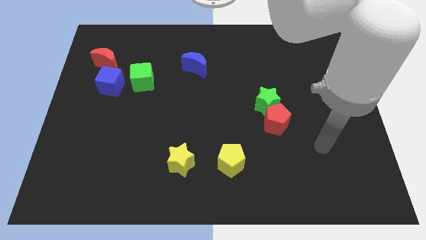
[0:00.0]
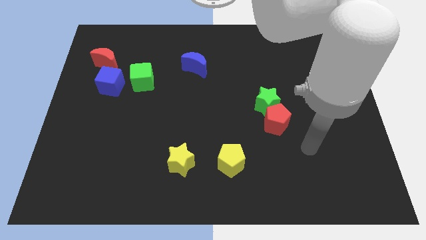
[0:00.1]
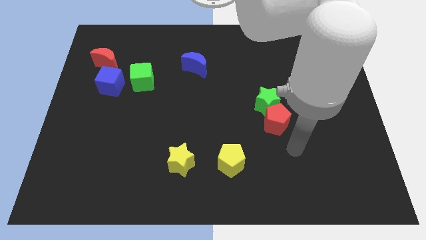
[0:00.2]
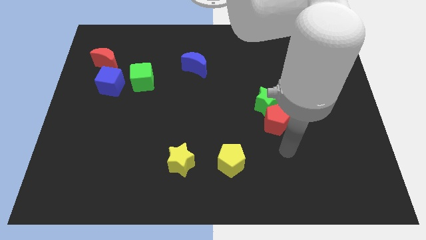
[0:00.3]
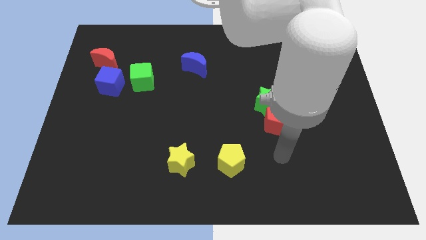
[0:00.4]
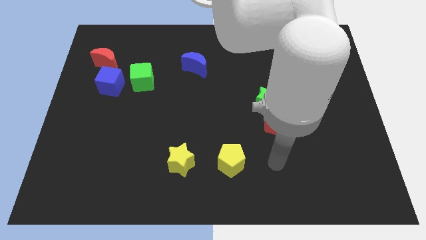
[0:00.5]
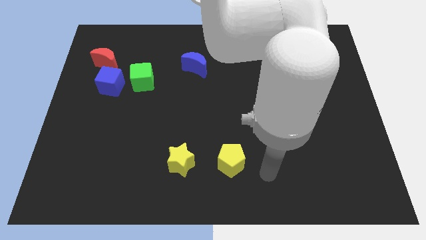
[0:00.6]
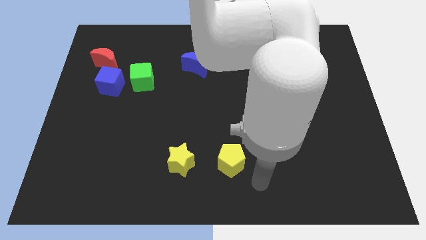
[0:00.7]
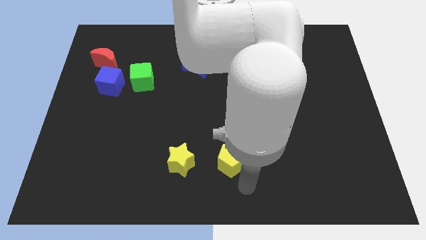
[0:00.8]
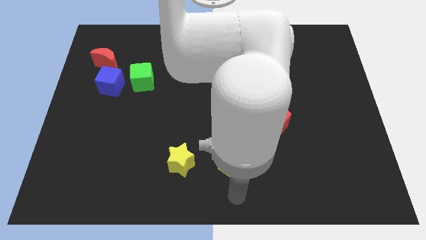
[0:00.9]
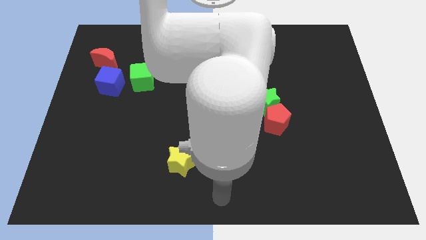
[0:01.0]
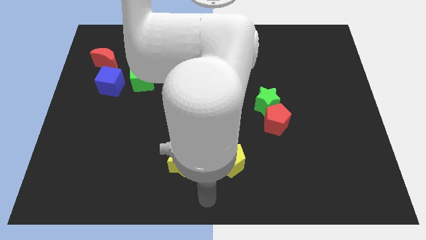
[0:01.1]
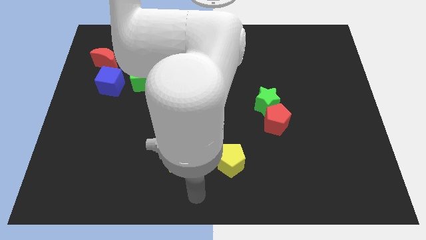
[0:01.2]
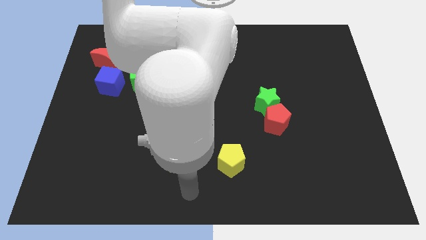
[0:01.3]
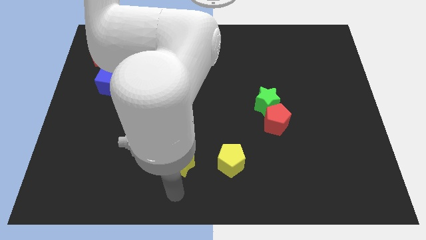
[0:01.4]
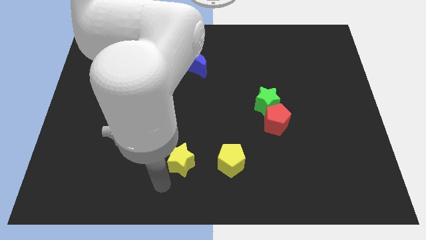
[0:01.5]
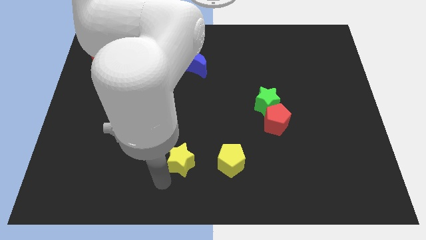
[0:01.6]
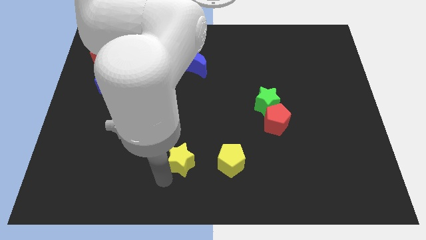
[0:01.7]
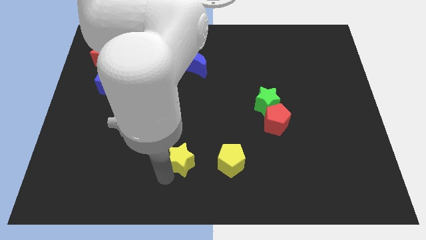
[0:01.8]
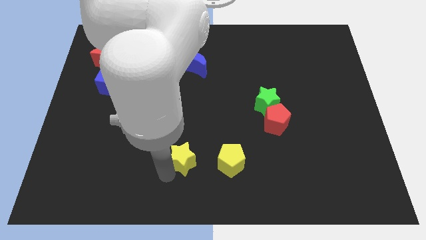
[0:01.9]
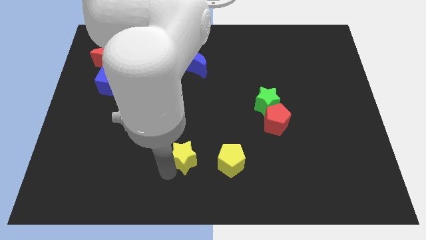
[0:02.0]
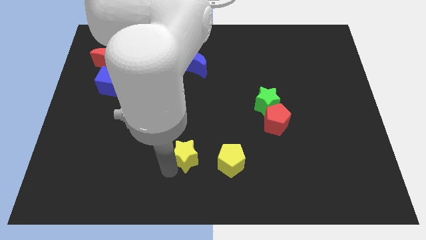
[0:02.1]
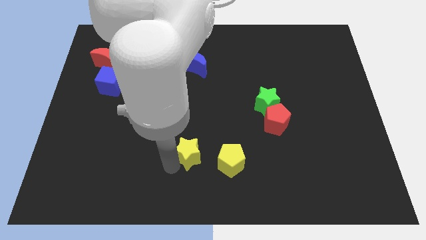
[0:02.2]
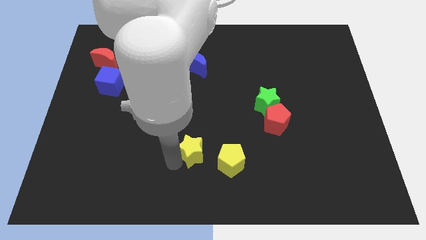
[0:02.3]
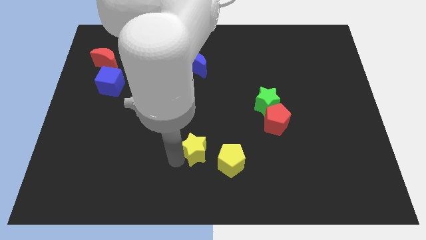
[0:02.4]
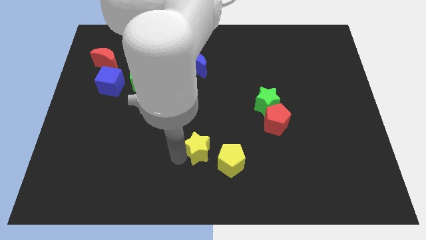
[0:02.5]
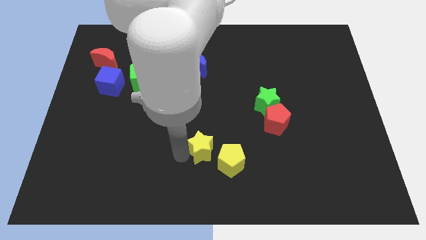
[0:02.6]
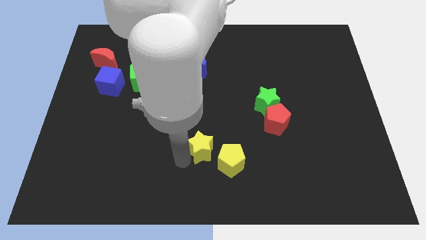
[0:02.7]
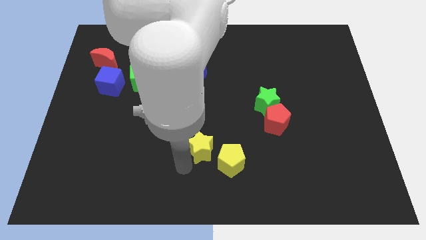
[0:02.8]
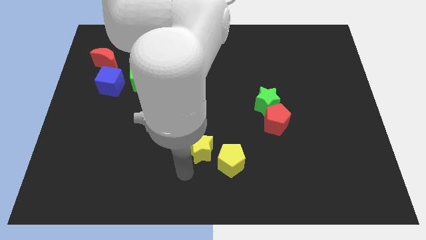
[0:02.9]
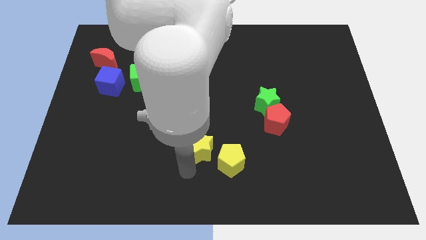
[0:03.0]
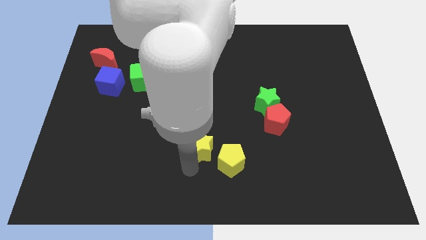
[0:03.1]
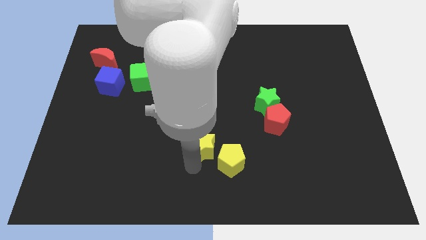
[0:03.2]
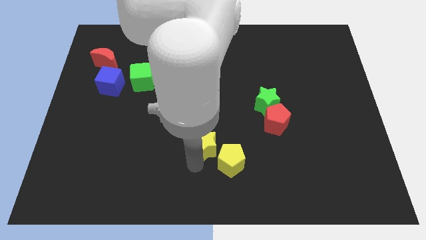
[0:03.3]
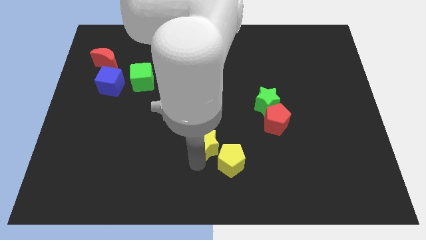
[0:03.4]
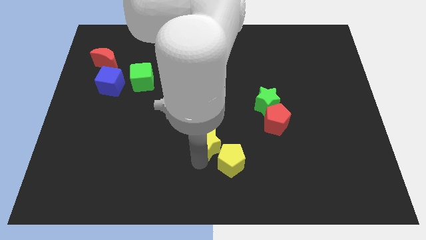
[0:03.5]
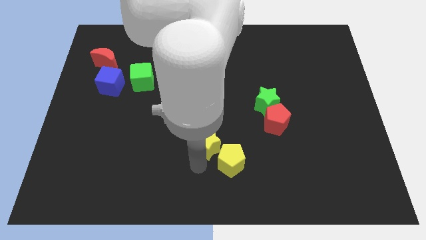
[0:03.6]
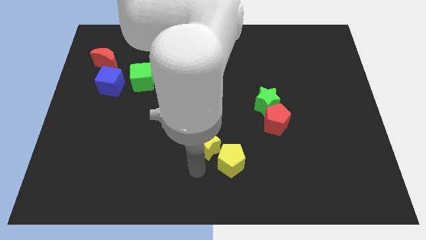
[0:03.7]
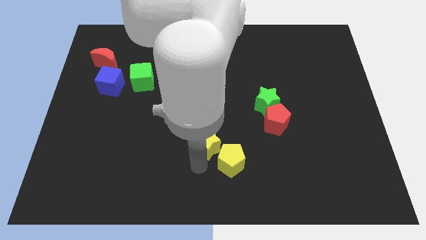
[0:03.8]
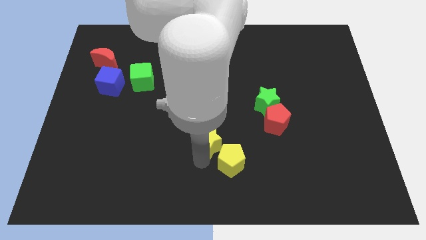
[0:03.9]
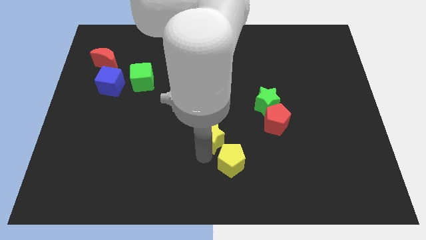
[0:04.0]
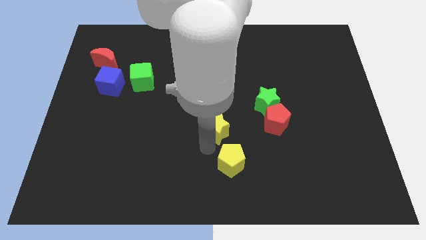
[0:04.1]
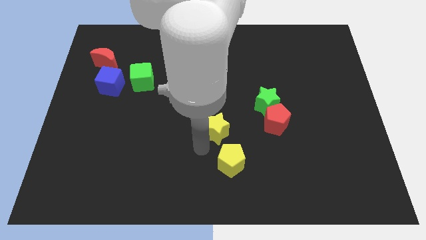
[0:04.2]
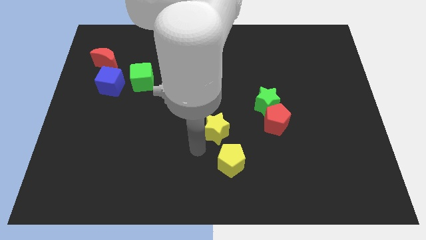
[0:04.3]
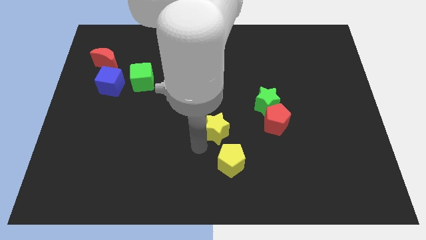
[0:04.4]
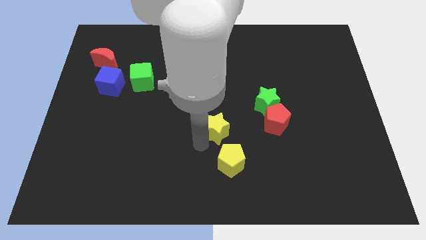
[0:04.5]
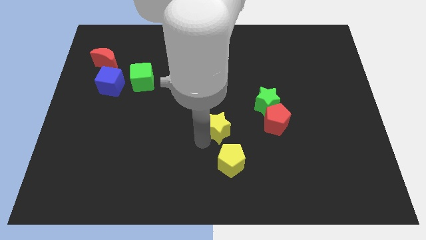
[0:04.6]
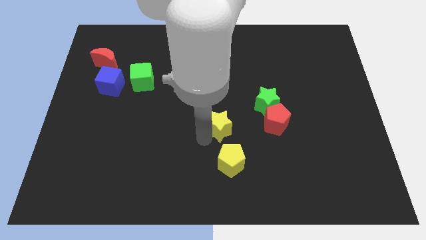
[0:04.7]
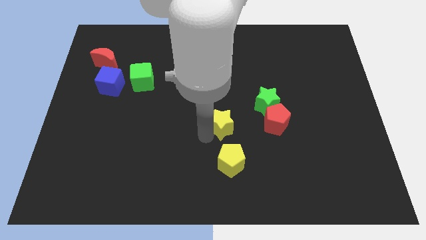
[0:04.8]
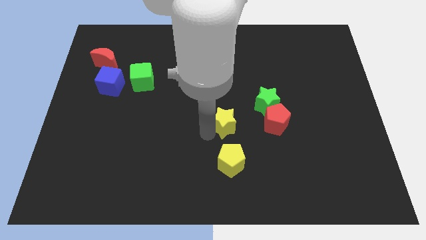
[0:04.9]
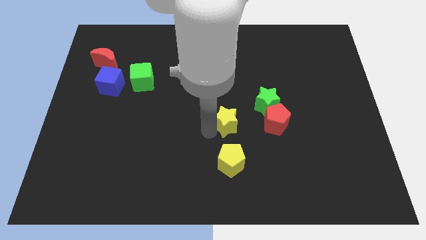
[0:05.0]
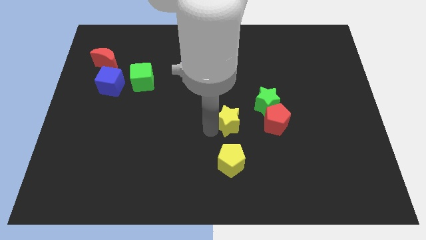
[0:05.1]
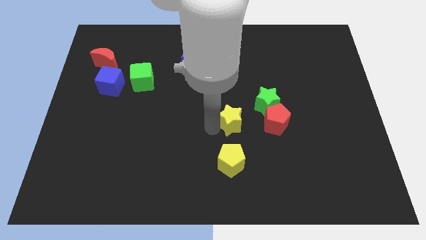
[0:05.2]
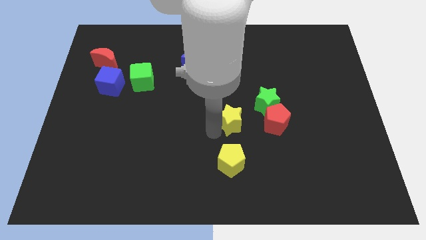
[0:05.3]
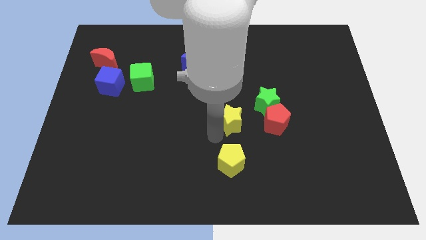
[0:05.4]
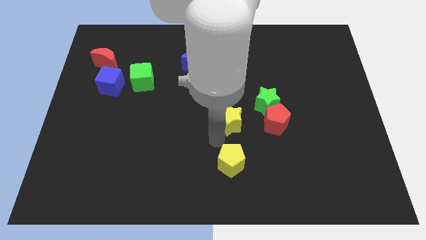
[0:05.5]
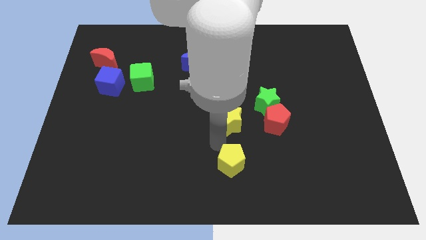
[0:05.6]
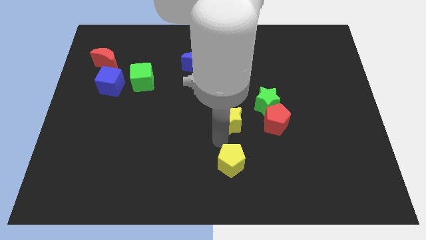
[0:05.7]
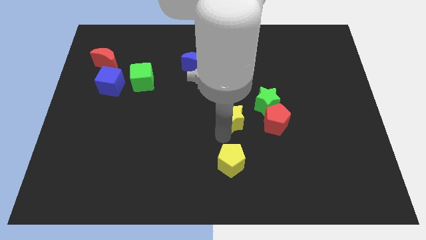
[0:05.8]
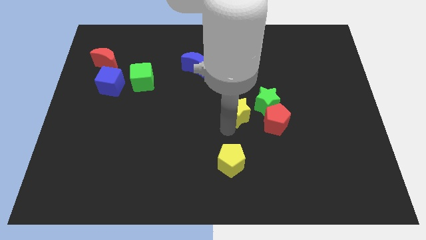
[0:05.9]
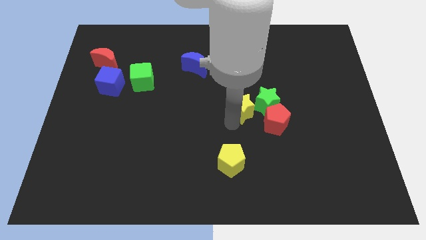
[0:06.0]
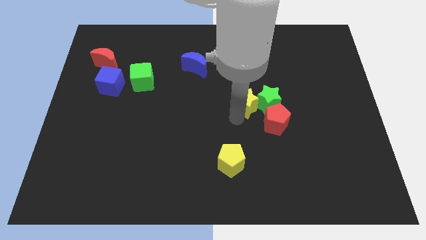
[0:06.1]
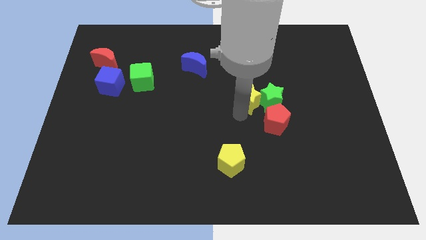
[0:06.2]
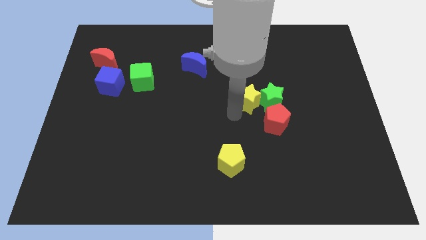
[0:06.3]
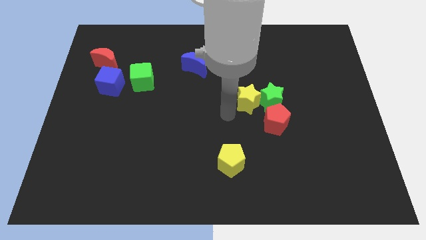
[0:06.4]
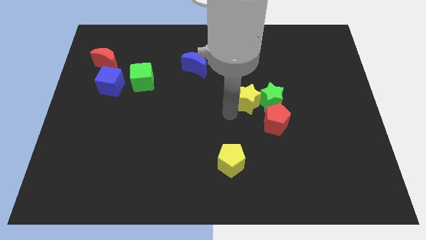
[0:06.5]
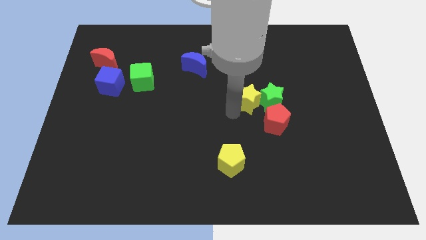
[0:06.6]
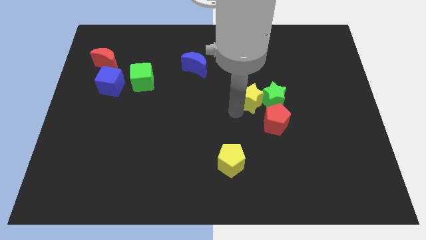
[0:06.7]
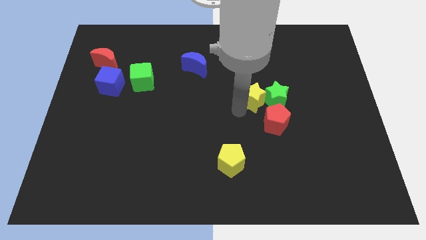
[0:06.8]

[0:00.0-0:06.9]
slide the yellow star to the top side of the red pentagon

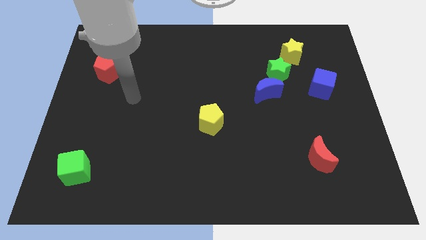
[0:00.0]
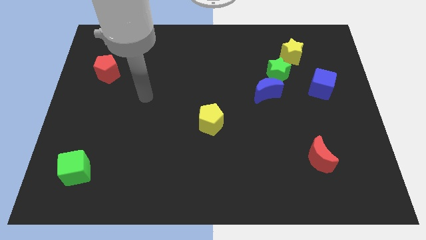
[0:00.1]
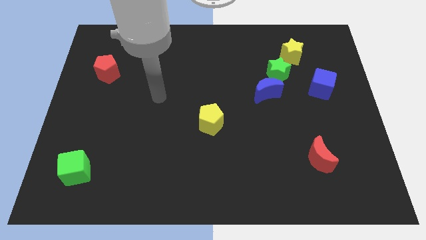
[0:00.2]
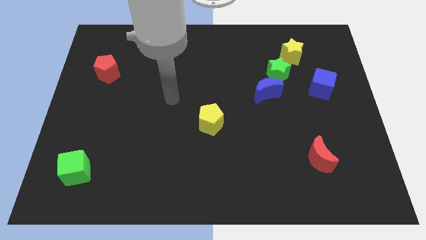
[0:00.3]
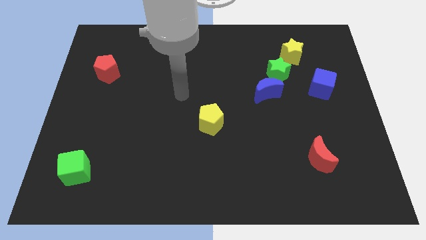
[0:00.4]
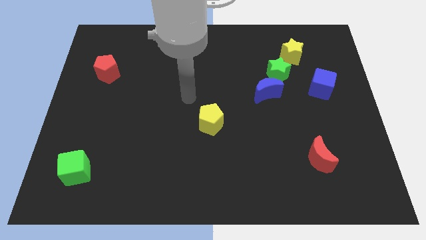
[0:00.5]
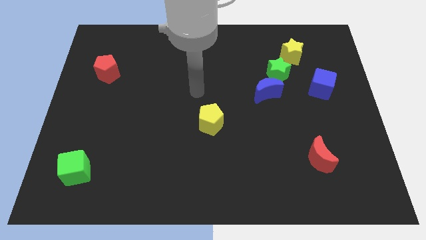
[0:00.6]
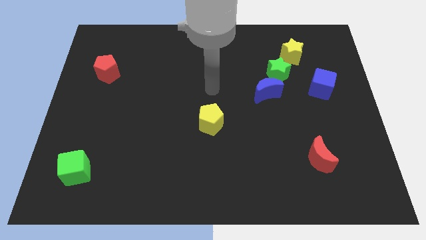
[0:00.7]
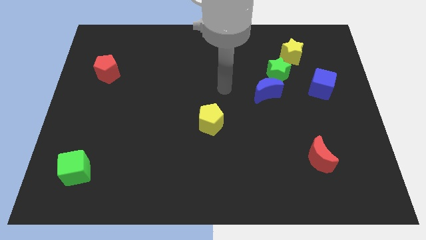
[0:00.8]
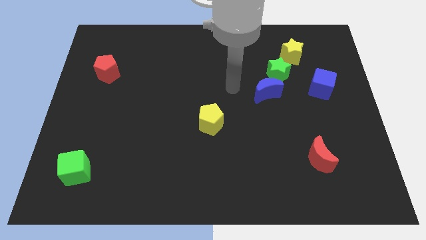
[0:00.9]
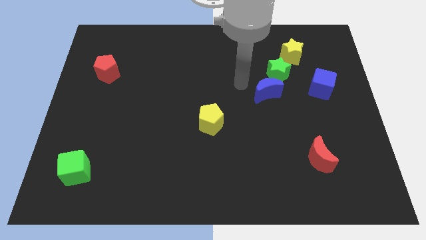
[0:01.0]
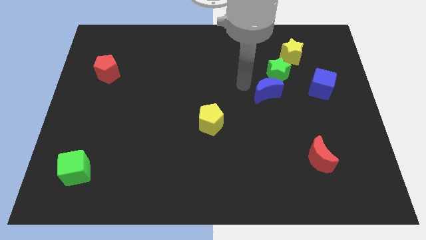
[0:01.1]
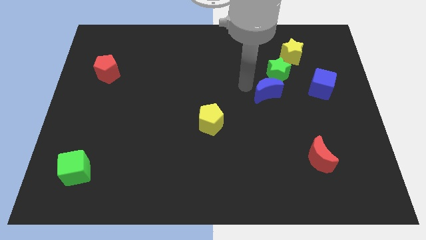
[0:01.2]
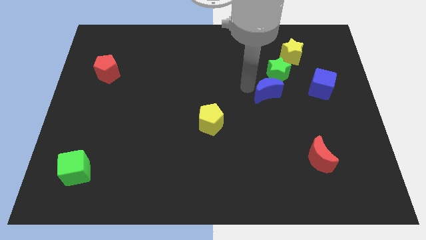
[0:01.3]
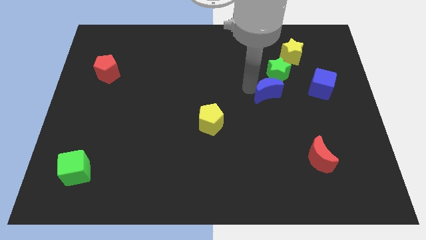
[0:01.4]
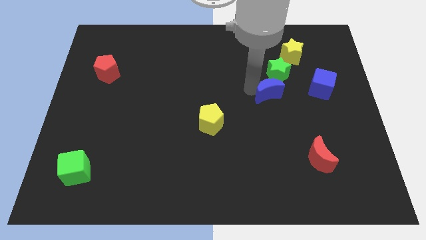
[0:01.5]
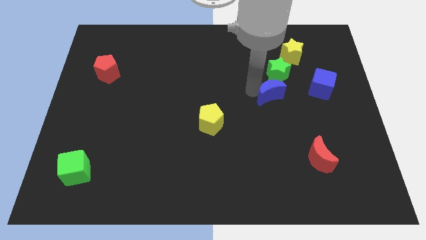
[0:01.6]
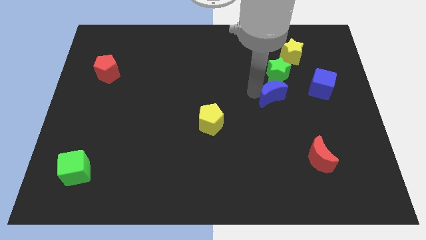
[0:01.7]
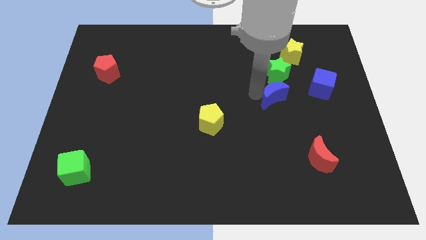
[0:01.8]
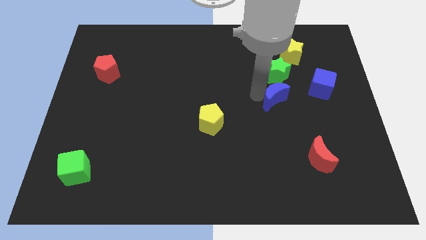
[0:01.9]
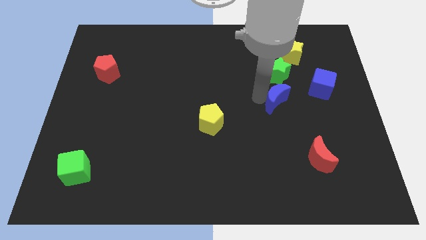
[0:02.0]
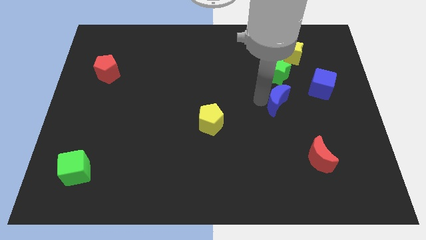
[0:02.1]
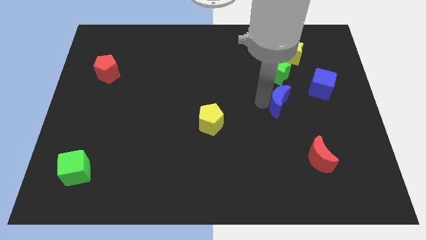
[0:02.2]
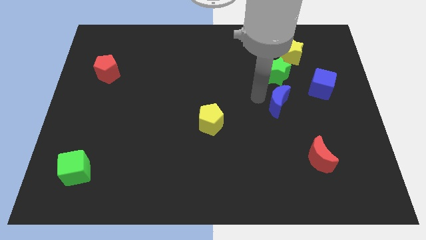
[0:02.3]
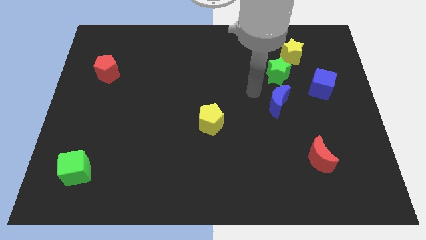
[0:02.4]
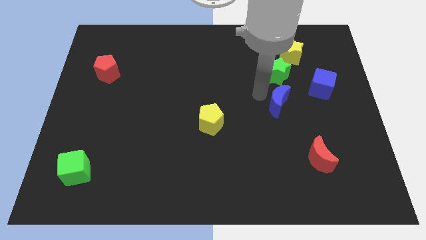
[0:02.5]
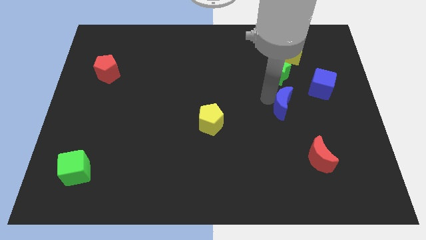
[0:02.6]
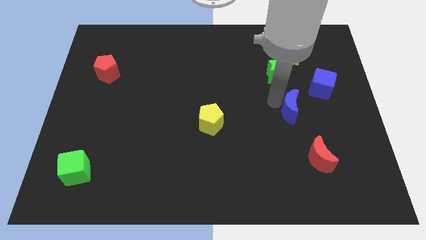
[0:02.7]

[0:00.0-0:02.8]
move the blue moon above the red moon
